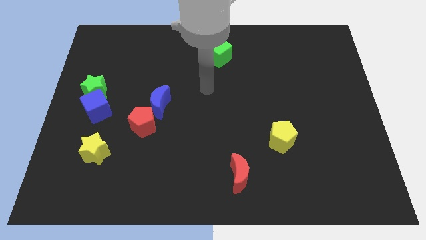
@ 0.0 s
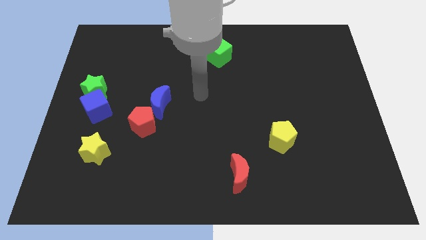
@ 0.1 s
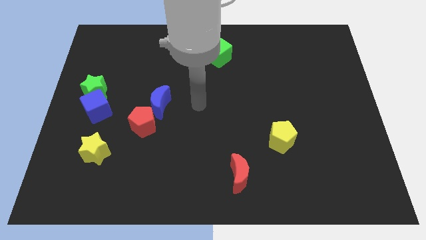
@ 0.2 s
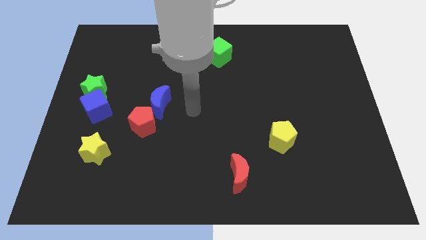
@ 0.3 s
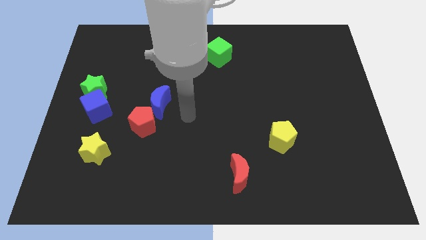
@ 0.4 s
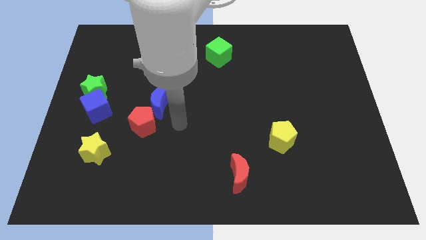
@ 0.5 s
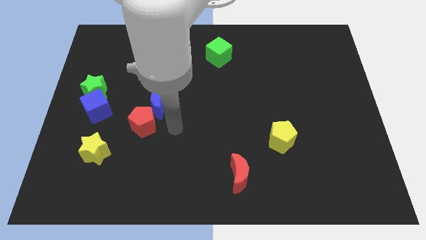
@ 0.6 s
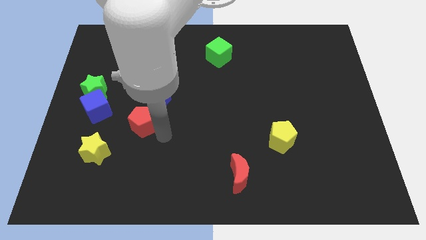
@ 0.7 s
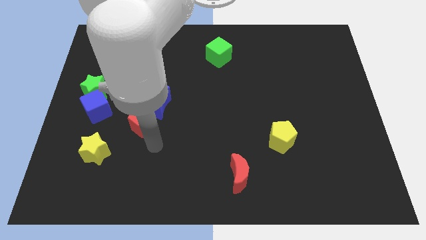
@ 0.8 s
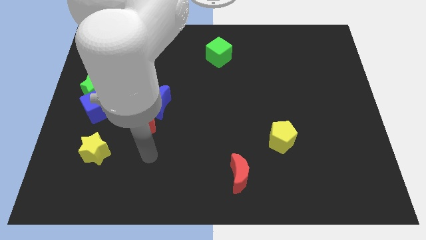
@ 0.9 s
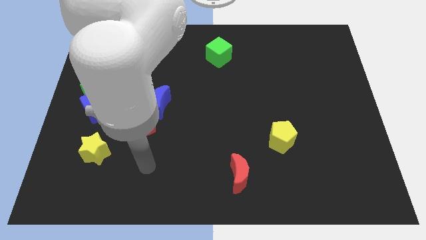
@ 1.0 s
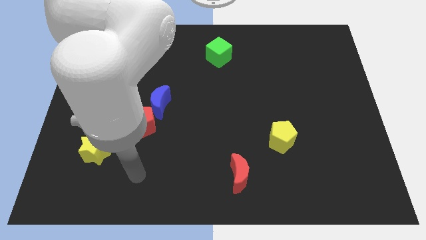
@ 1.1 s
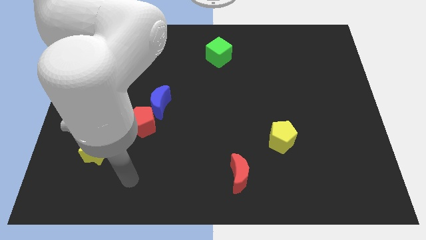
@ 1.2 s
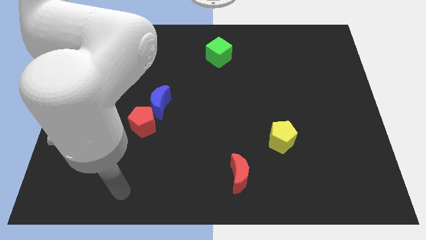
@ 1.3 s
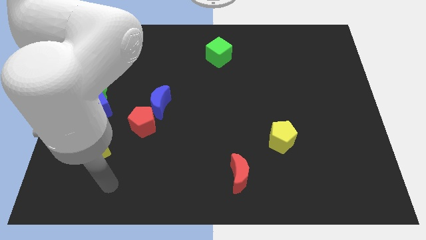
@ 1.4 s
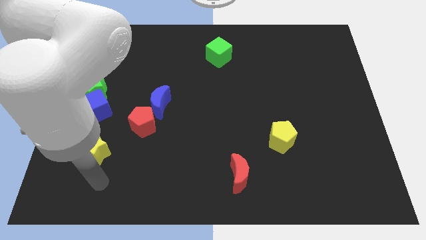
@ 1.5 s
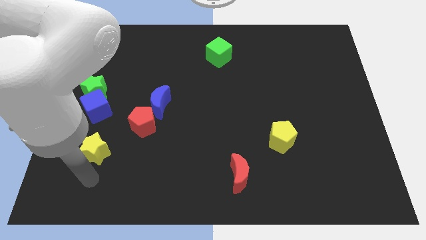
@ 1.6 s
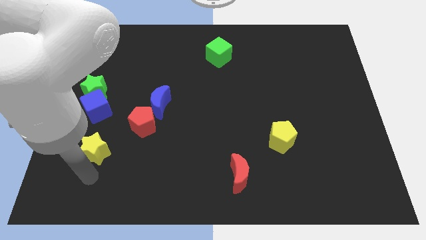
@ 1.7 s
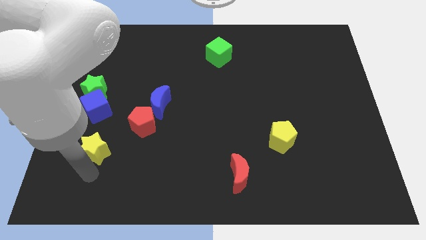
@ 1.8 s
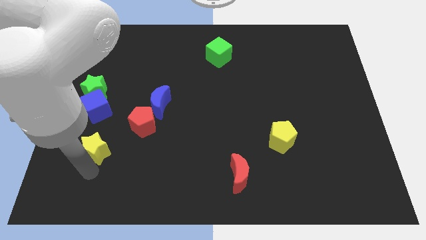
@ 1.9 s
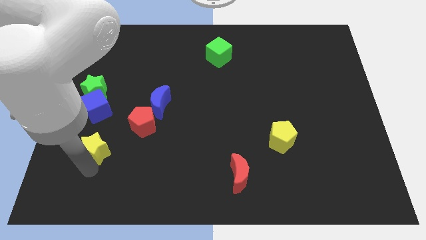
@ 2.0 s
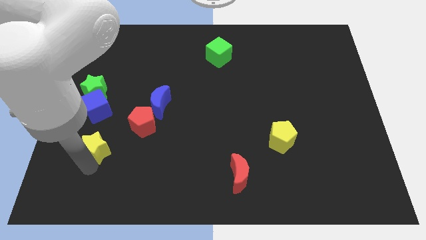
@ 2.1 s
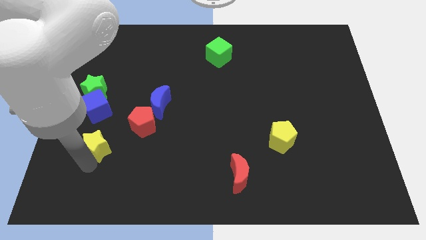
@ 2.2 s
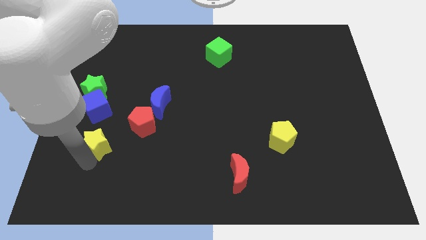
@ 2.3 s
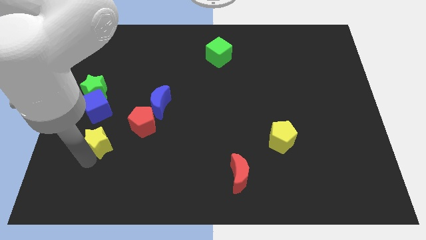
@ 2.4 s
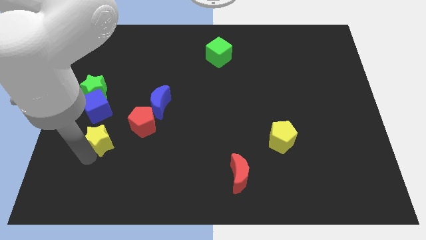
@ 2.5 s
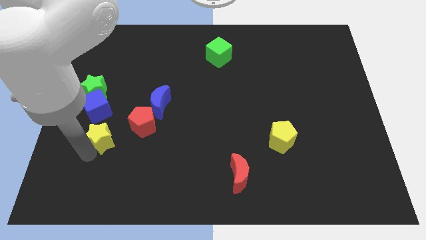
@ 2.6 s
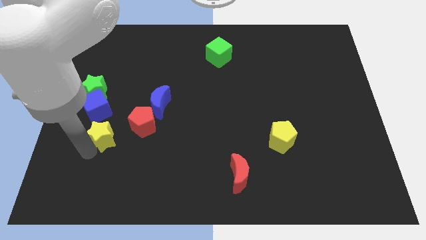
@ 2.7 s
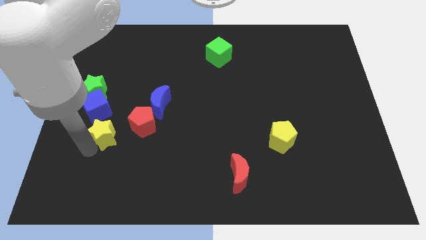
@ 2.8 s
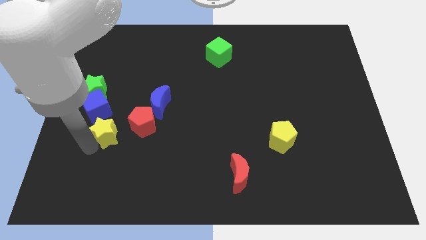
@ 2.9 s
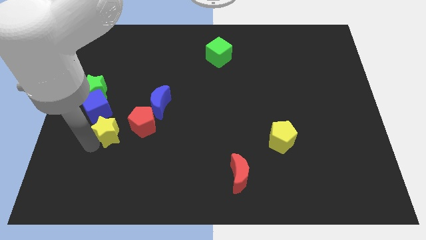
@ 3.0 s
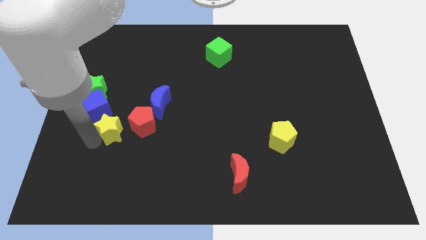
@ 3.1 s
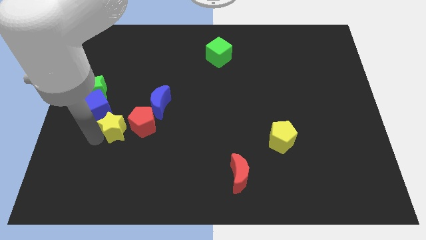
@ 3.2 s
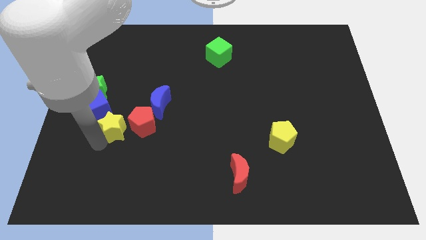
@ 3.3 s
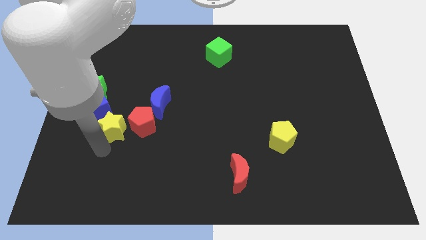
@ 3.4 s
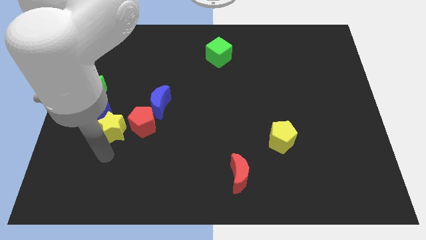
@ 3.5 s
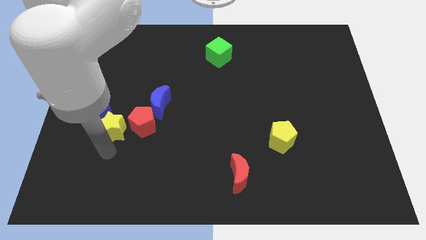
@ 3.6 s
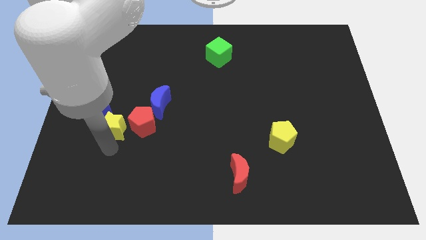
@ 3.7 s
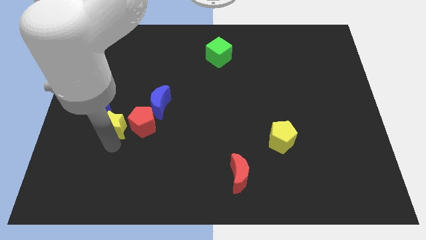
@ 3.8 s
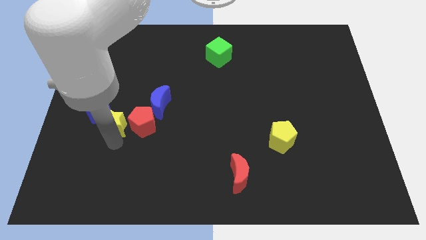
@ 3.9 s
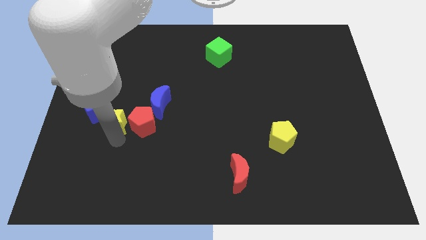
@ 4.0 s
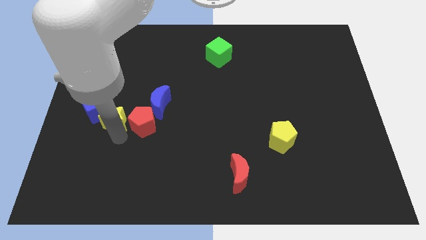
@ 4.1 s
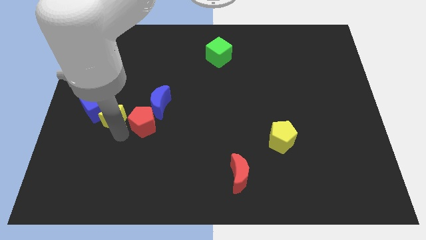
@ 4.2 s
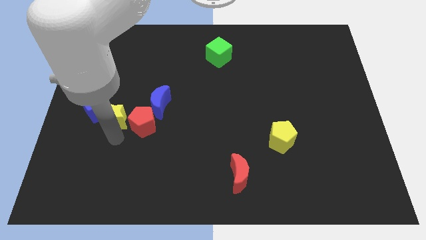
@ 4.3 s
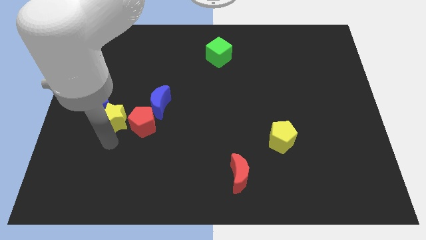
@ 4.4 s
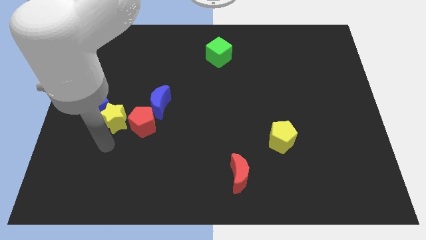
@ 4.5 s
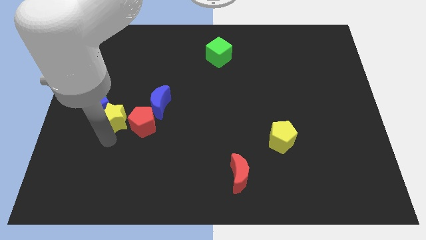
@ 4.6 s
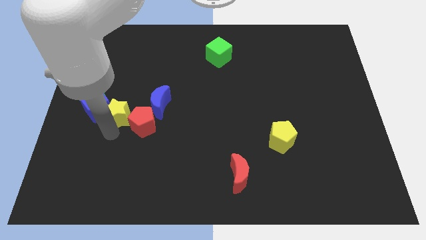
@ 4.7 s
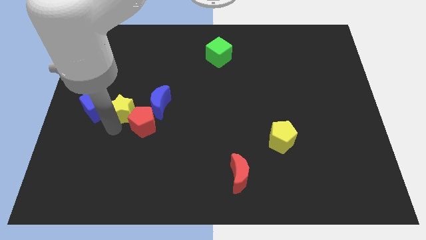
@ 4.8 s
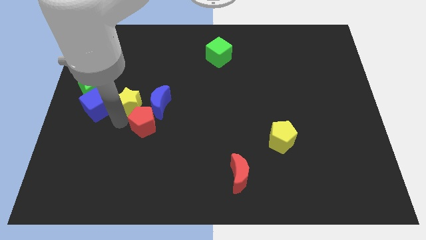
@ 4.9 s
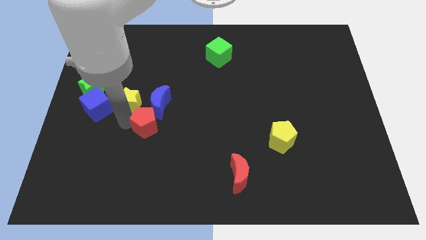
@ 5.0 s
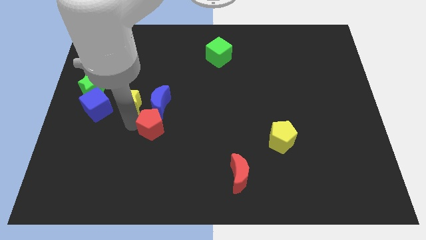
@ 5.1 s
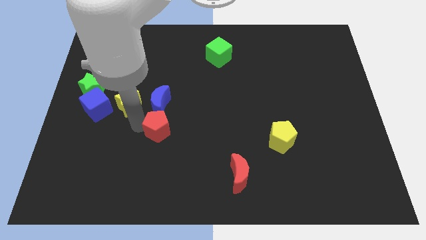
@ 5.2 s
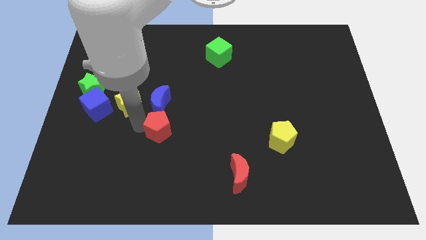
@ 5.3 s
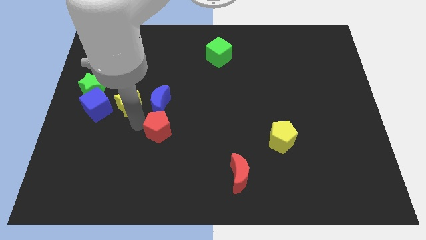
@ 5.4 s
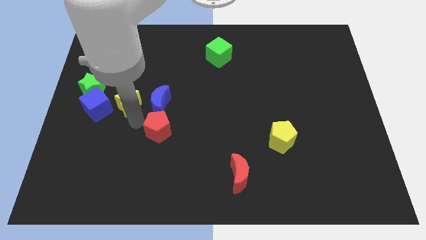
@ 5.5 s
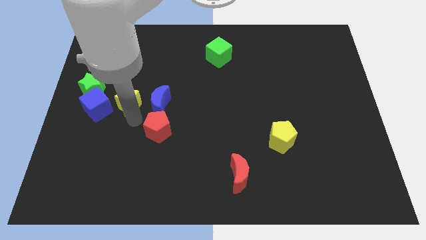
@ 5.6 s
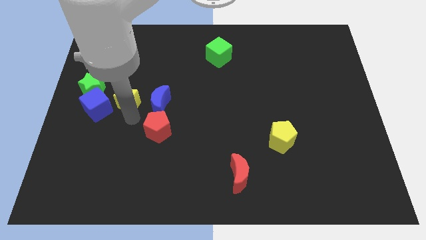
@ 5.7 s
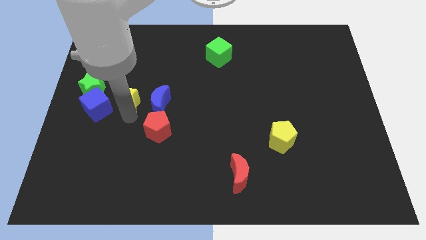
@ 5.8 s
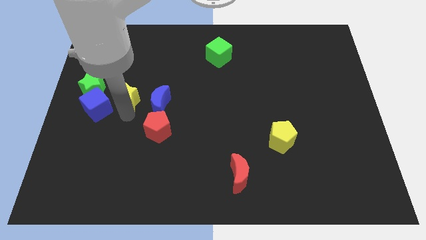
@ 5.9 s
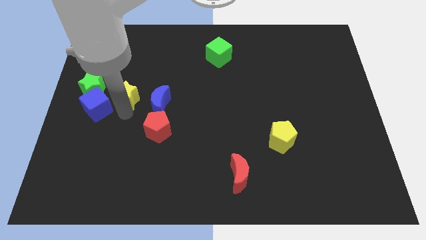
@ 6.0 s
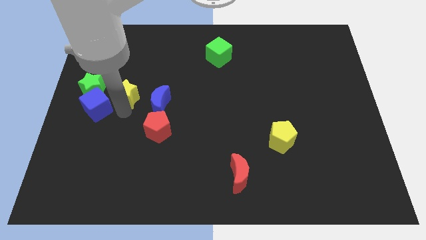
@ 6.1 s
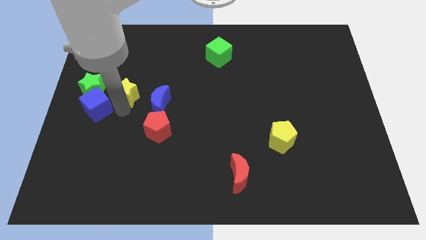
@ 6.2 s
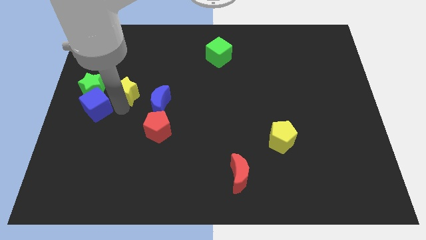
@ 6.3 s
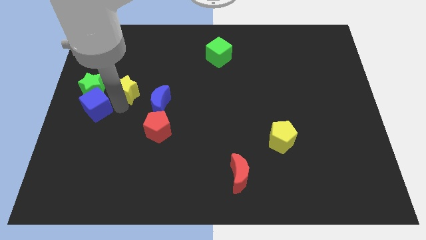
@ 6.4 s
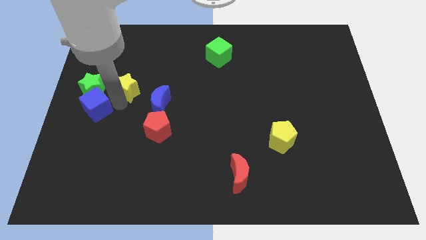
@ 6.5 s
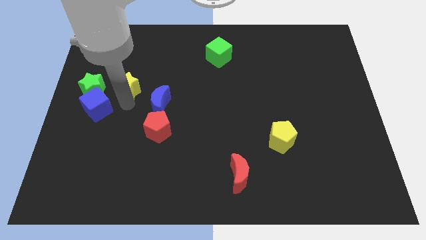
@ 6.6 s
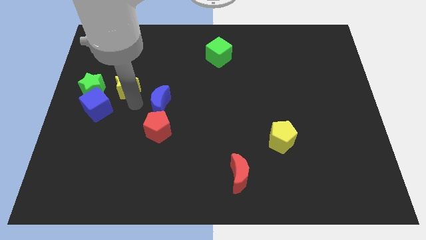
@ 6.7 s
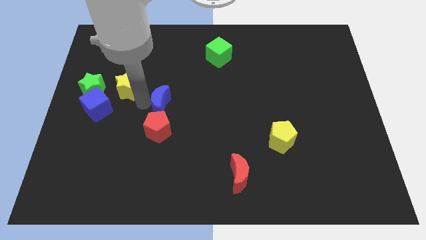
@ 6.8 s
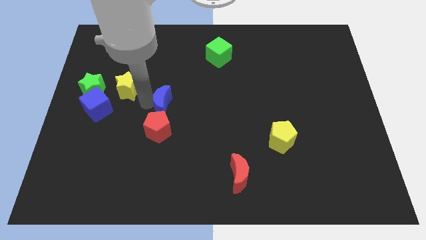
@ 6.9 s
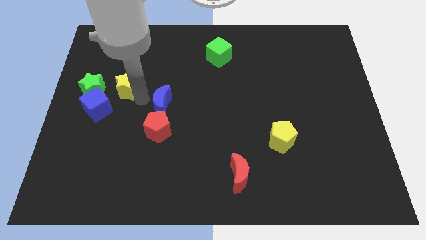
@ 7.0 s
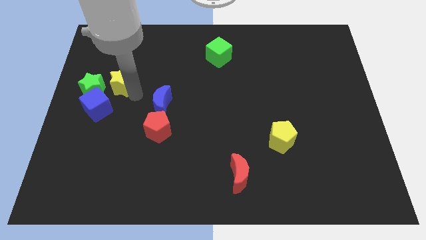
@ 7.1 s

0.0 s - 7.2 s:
slide the yellow star to the top of the blue cube

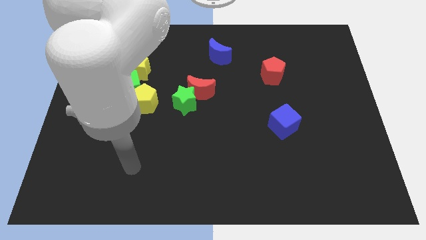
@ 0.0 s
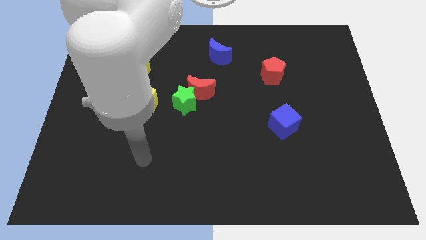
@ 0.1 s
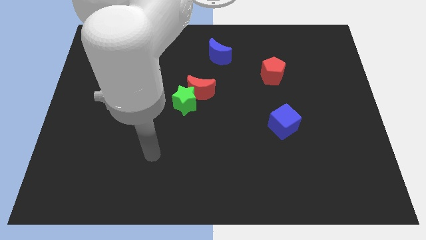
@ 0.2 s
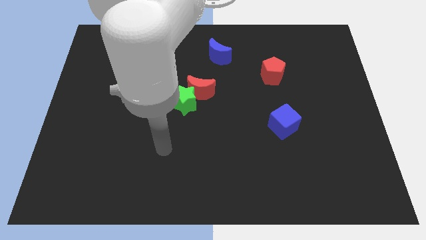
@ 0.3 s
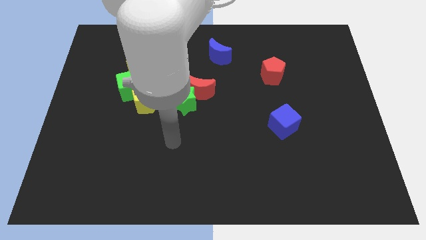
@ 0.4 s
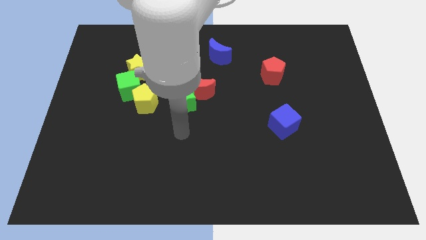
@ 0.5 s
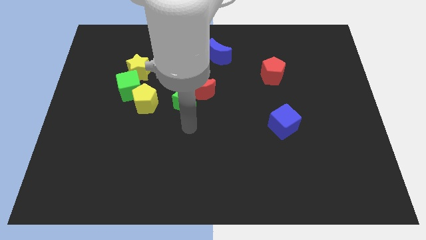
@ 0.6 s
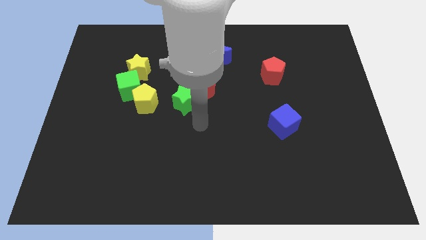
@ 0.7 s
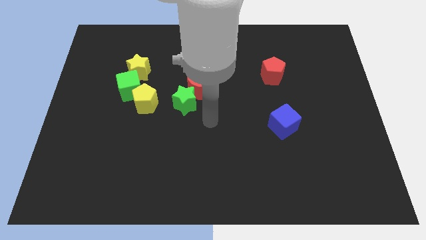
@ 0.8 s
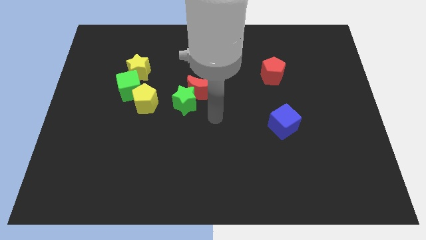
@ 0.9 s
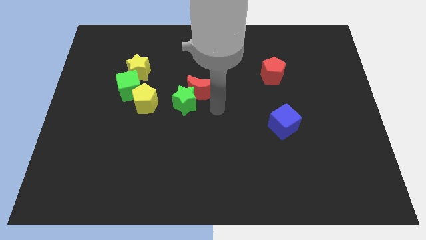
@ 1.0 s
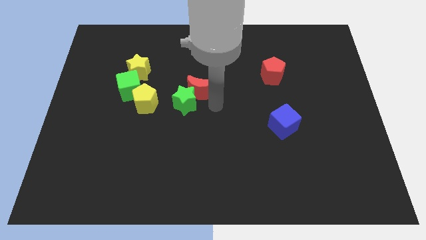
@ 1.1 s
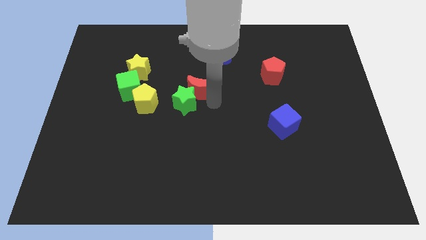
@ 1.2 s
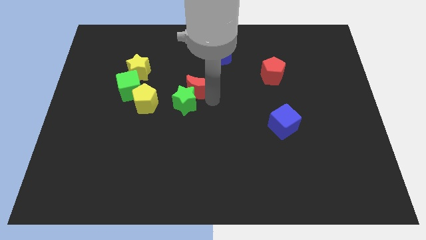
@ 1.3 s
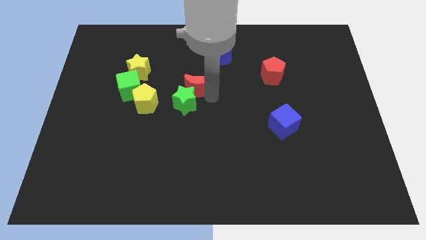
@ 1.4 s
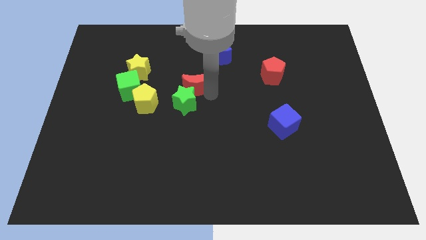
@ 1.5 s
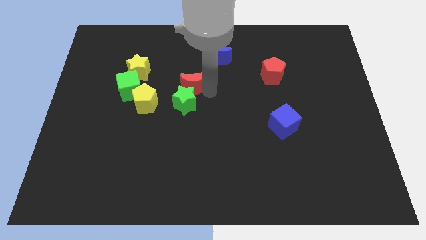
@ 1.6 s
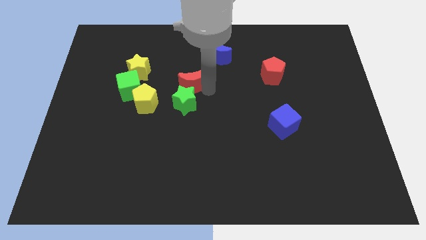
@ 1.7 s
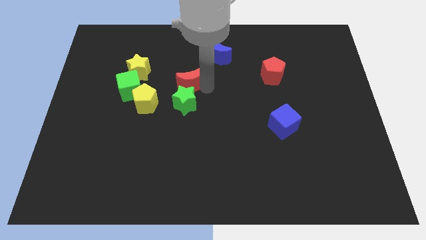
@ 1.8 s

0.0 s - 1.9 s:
put the red moon to the right side of the yellow star
